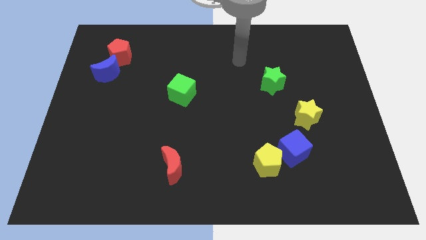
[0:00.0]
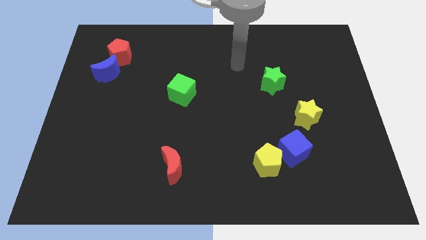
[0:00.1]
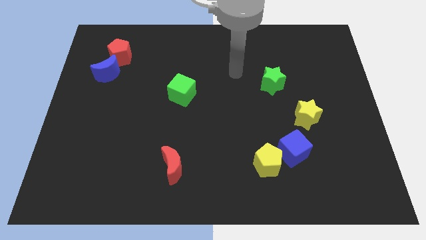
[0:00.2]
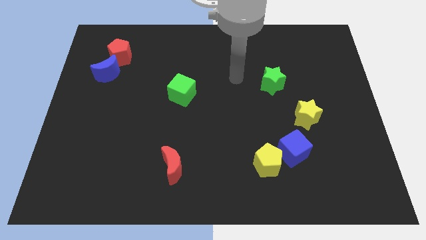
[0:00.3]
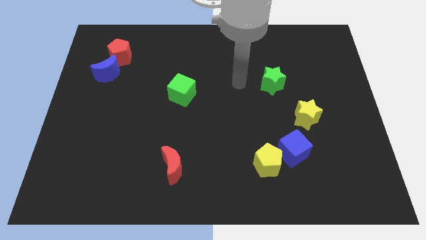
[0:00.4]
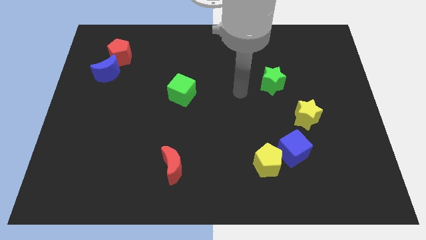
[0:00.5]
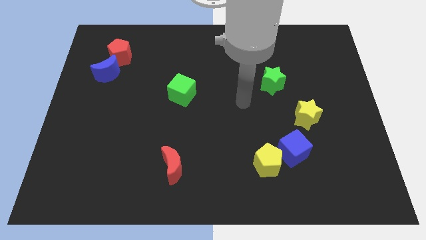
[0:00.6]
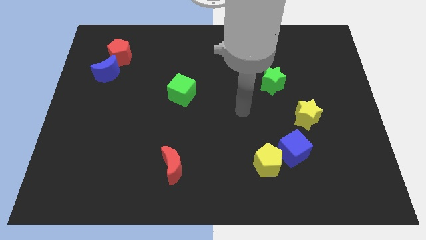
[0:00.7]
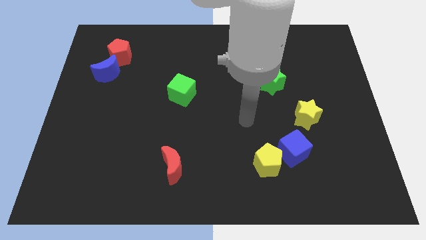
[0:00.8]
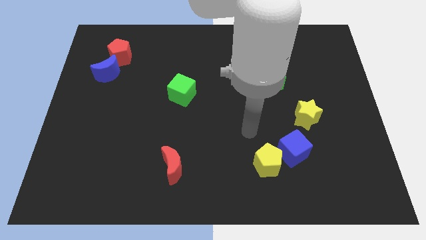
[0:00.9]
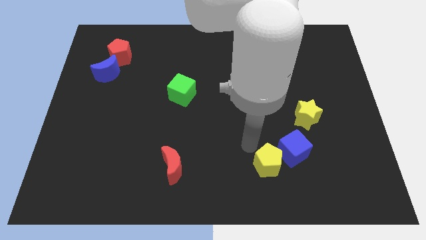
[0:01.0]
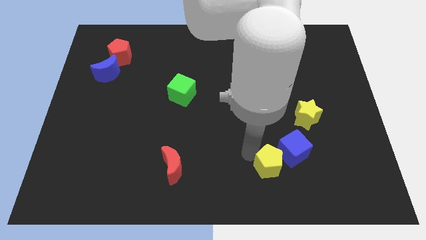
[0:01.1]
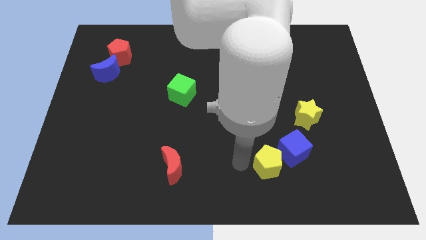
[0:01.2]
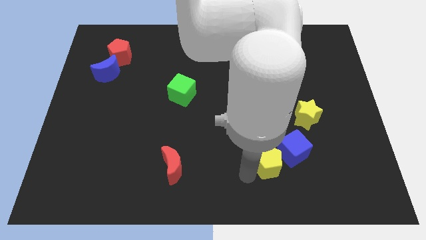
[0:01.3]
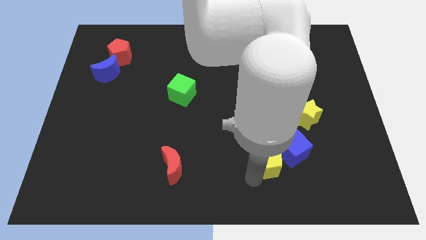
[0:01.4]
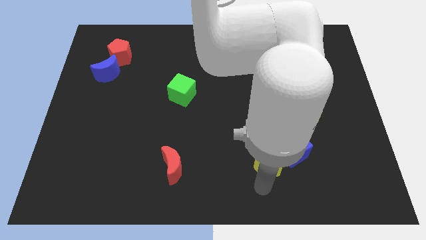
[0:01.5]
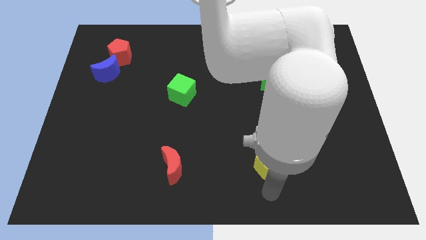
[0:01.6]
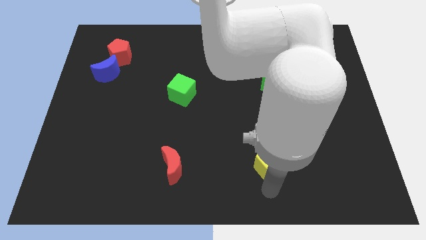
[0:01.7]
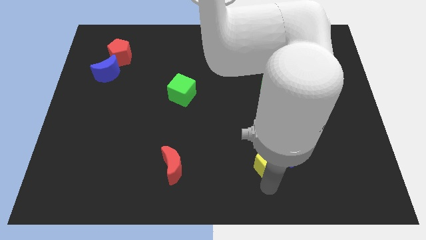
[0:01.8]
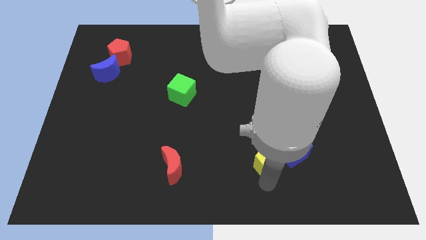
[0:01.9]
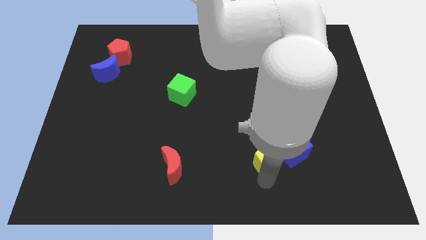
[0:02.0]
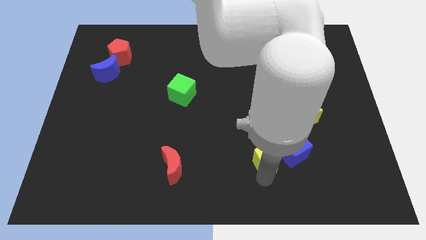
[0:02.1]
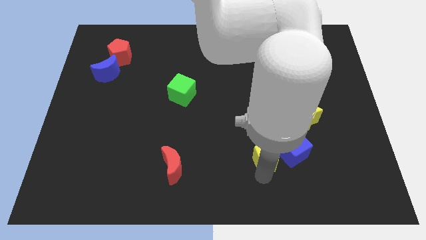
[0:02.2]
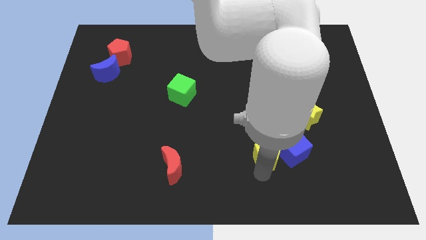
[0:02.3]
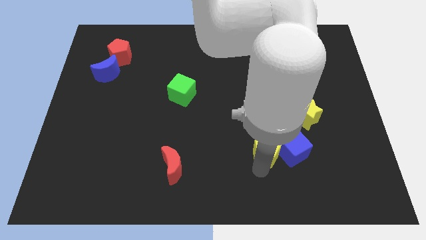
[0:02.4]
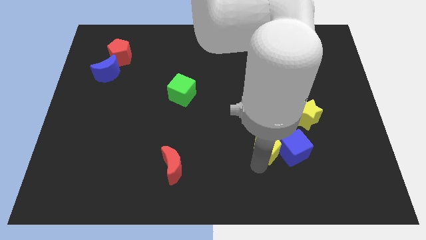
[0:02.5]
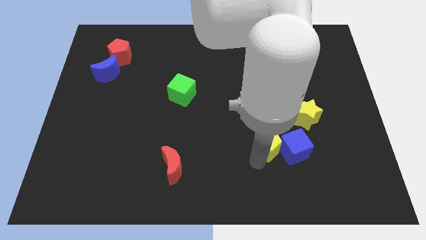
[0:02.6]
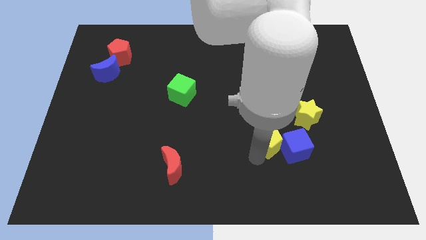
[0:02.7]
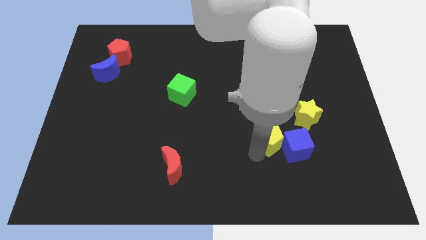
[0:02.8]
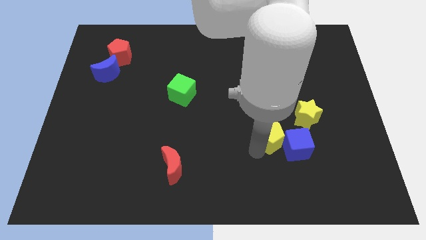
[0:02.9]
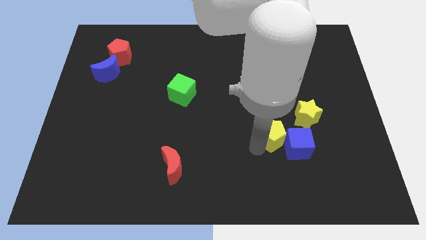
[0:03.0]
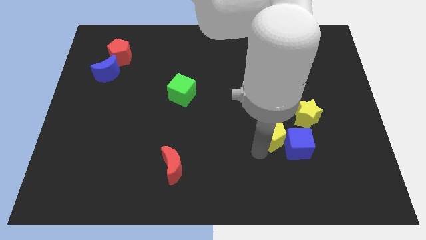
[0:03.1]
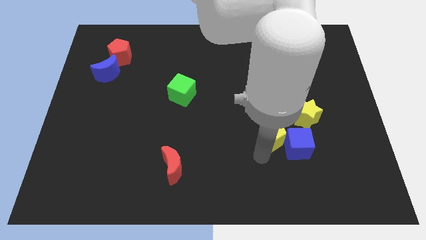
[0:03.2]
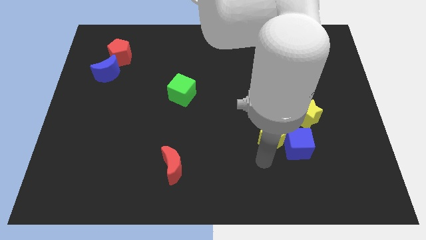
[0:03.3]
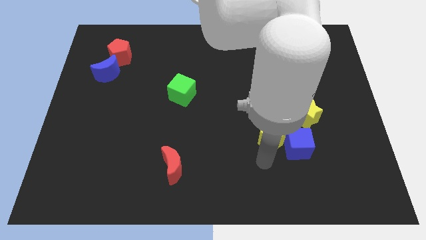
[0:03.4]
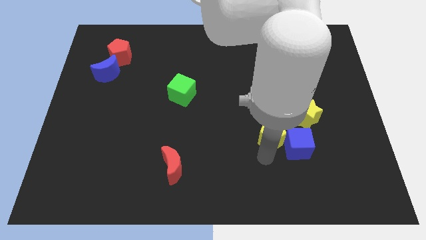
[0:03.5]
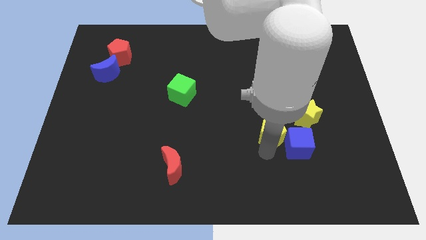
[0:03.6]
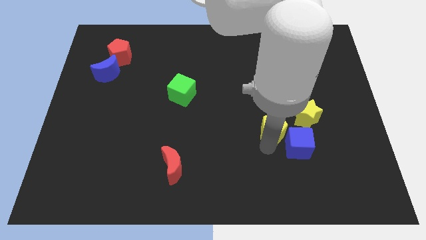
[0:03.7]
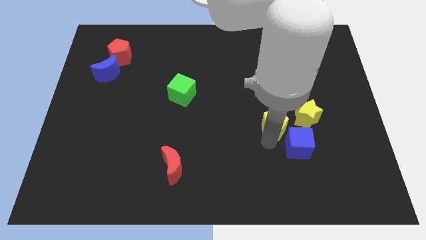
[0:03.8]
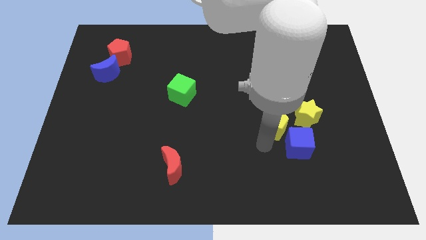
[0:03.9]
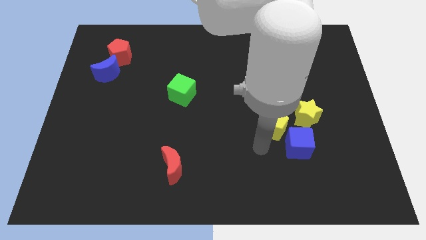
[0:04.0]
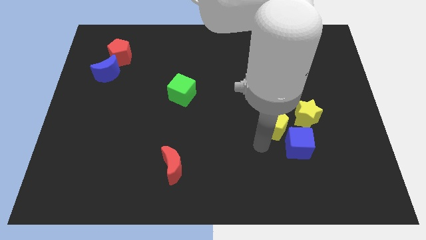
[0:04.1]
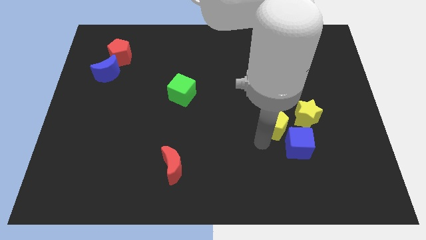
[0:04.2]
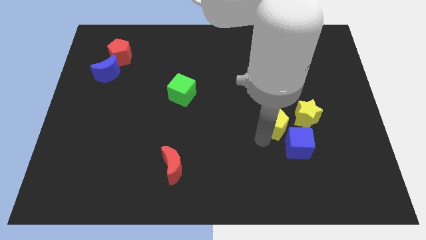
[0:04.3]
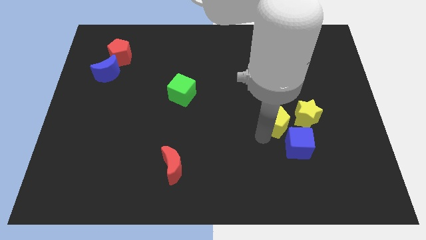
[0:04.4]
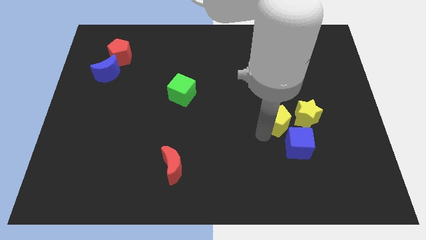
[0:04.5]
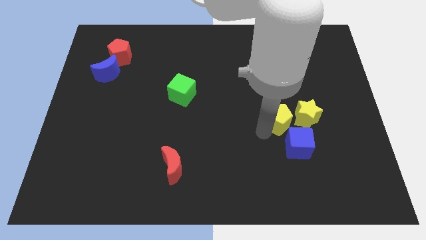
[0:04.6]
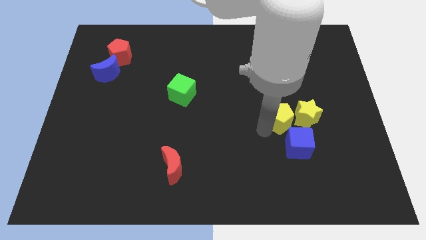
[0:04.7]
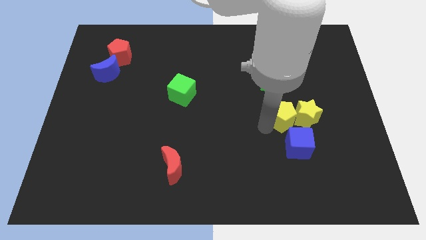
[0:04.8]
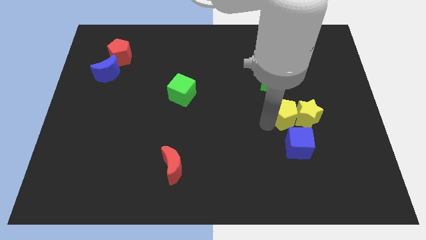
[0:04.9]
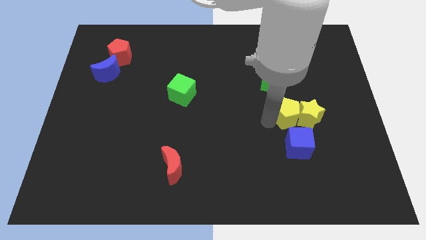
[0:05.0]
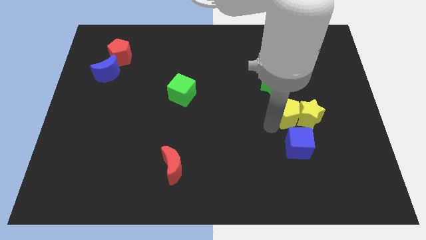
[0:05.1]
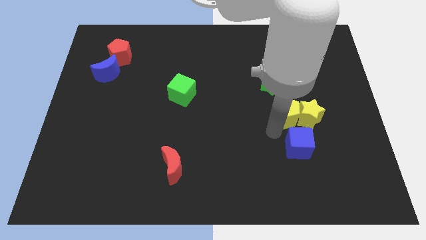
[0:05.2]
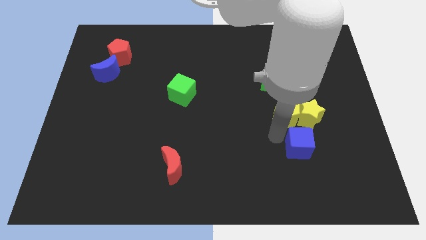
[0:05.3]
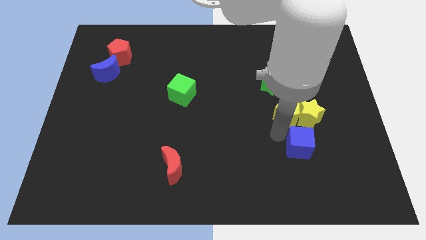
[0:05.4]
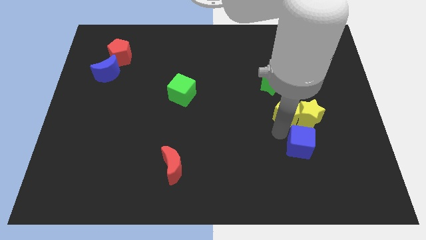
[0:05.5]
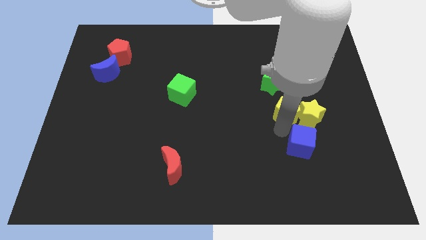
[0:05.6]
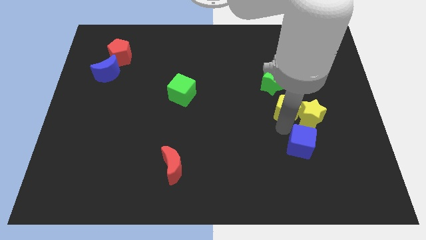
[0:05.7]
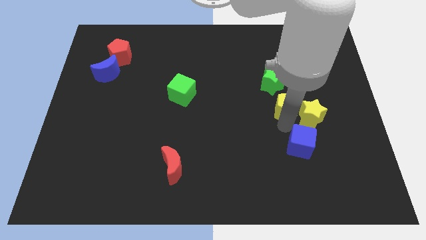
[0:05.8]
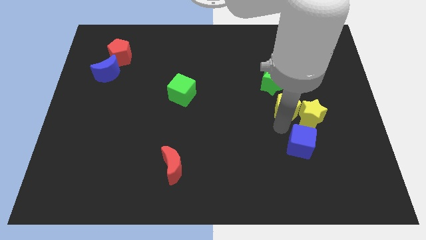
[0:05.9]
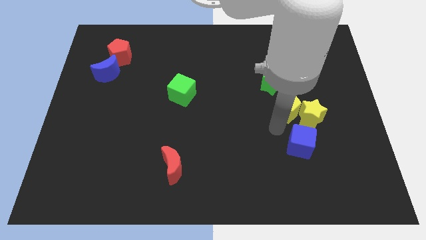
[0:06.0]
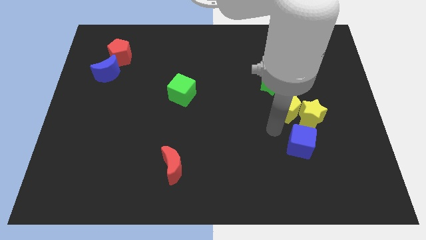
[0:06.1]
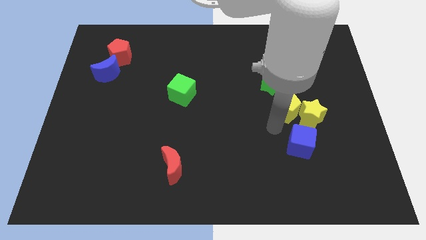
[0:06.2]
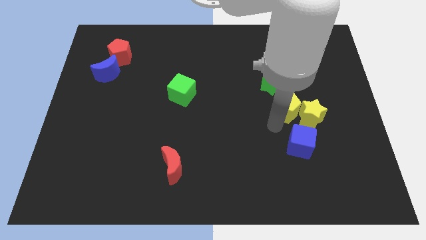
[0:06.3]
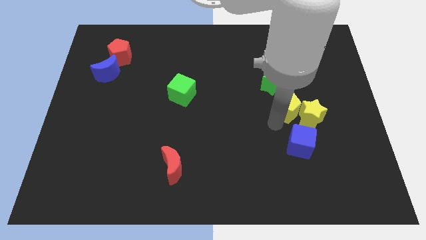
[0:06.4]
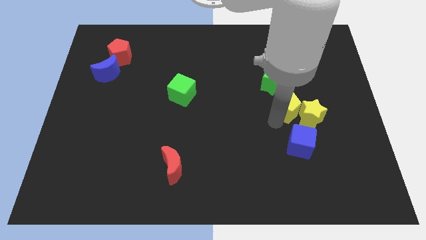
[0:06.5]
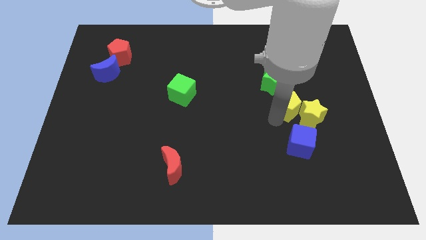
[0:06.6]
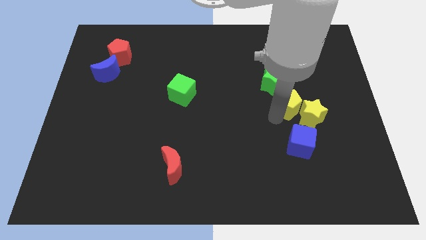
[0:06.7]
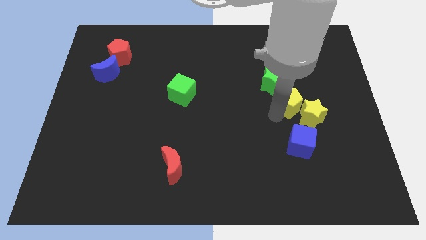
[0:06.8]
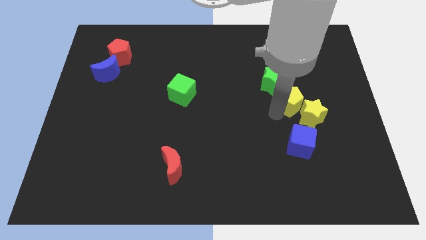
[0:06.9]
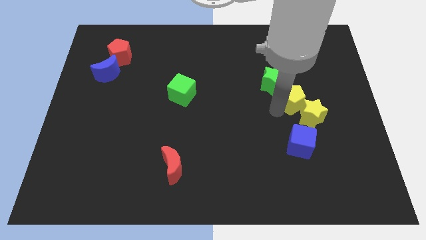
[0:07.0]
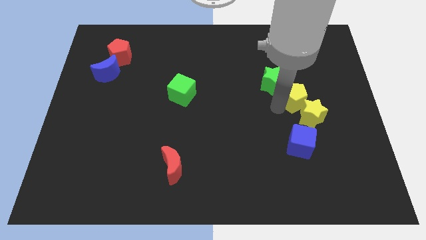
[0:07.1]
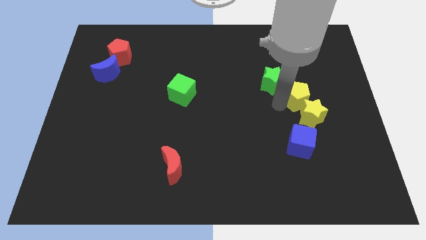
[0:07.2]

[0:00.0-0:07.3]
slide the yellow pentagon to the right of the green star
